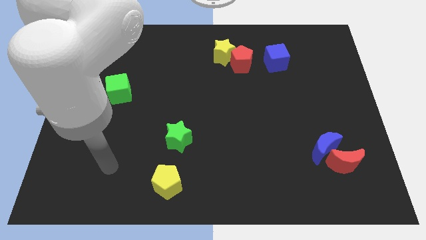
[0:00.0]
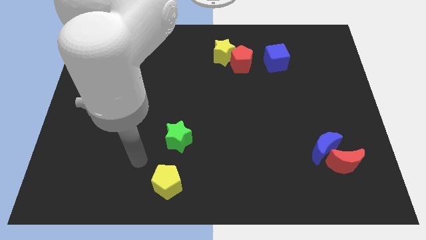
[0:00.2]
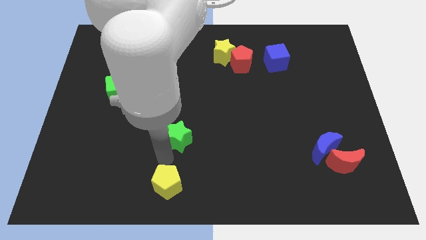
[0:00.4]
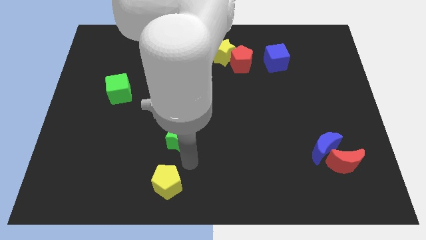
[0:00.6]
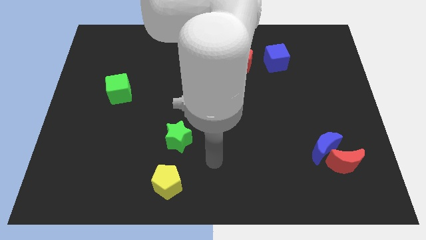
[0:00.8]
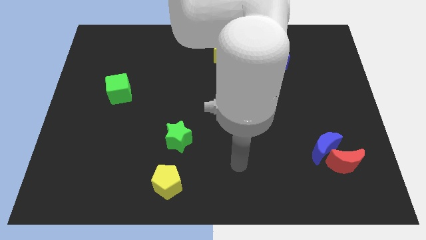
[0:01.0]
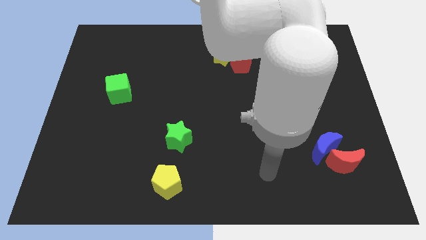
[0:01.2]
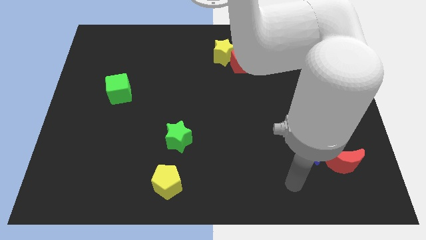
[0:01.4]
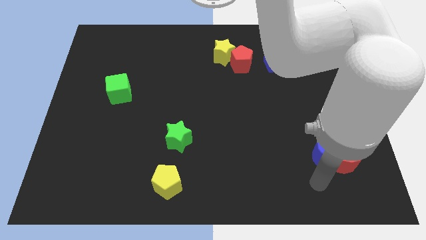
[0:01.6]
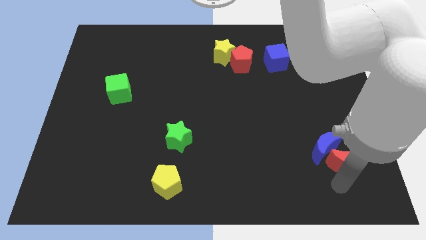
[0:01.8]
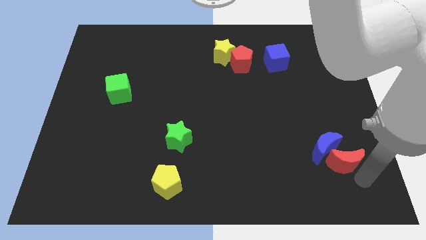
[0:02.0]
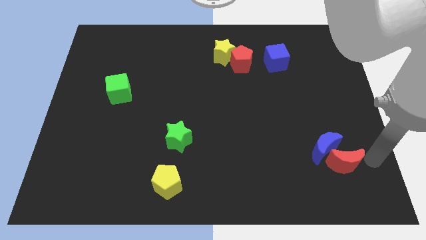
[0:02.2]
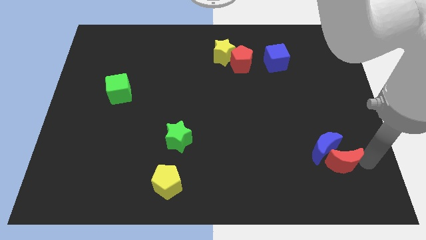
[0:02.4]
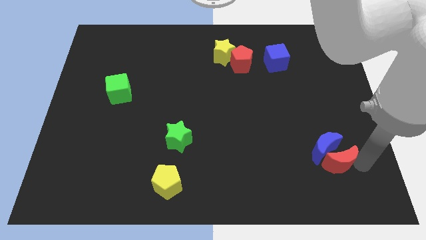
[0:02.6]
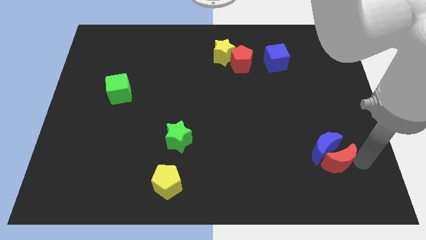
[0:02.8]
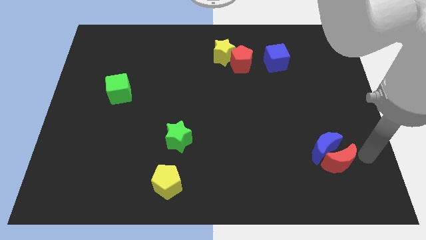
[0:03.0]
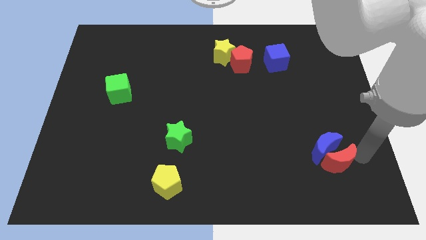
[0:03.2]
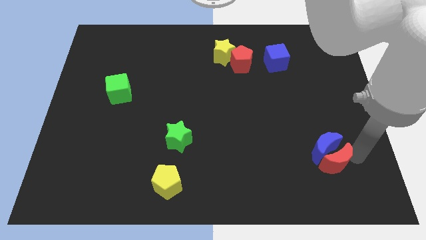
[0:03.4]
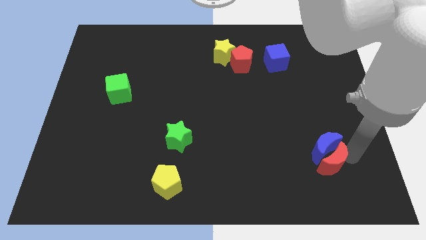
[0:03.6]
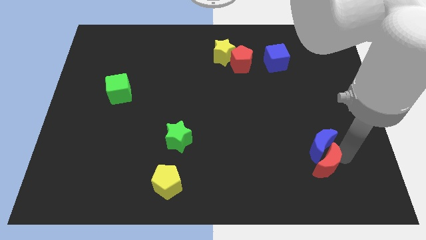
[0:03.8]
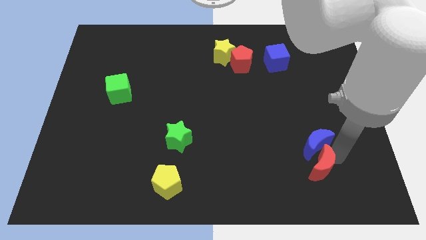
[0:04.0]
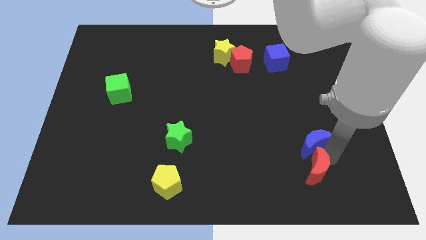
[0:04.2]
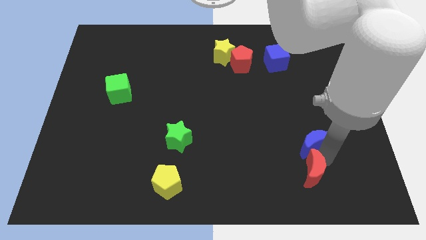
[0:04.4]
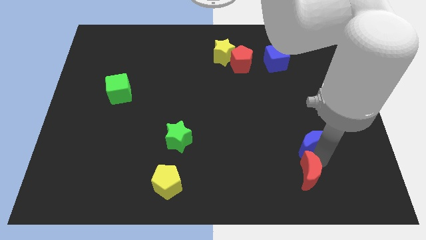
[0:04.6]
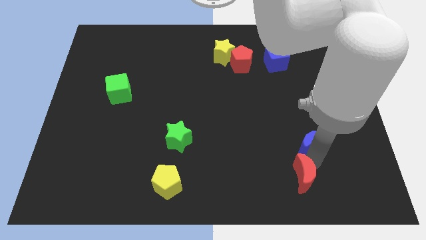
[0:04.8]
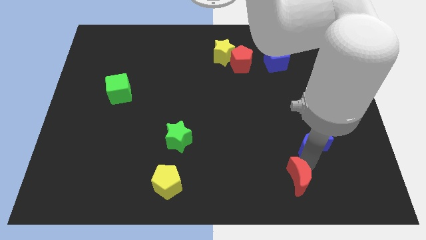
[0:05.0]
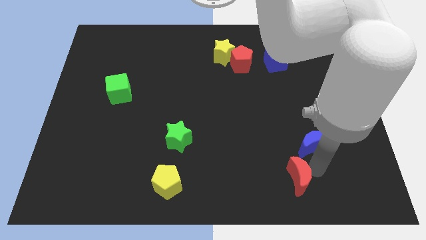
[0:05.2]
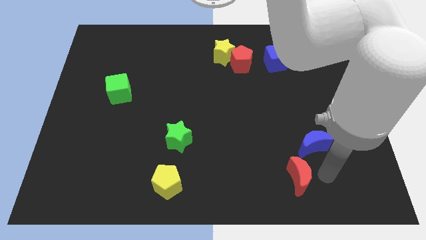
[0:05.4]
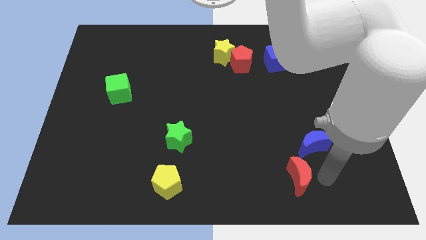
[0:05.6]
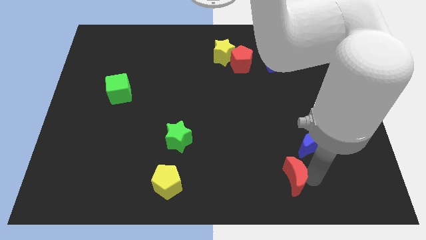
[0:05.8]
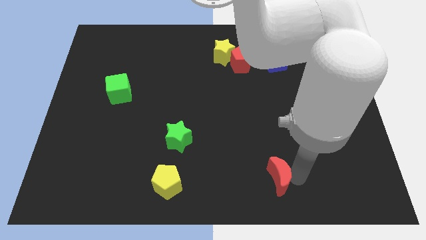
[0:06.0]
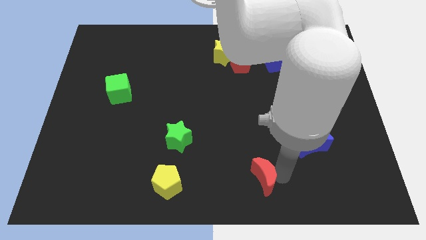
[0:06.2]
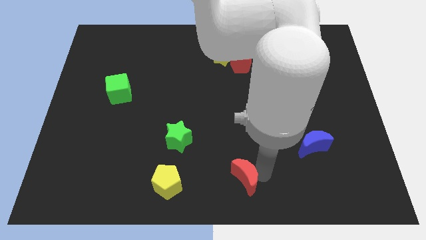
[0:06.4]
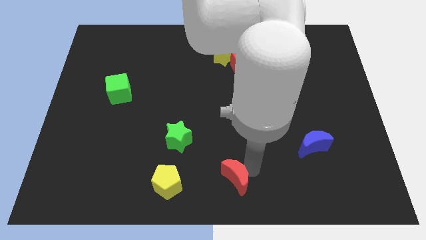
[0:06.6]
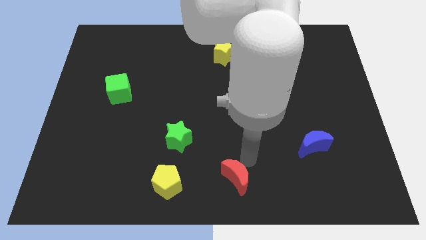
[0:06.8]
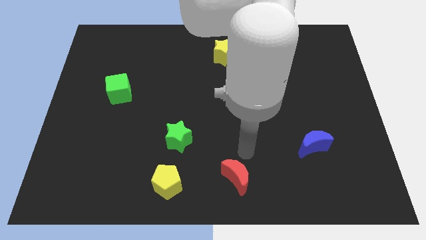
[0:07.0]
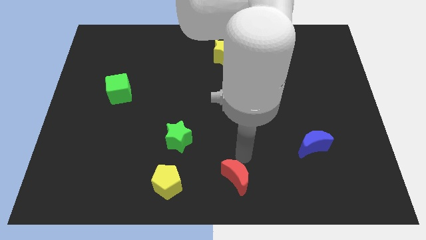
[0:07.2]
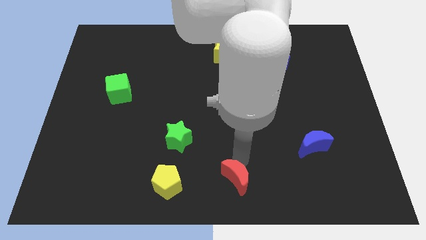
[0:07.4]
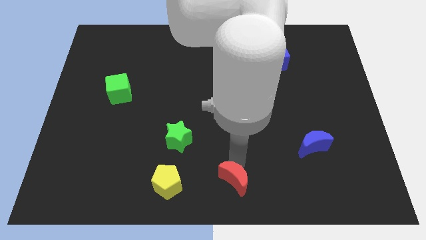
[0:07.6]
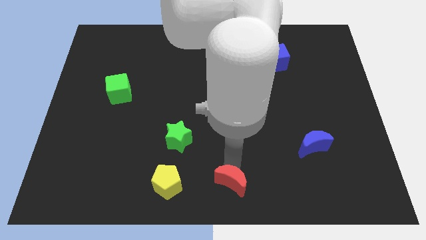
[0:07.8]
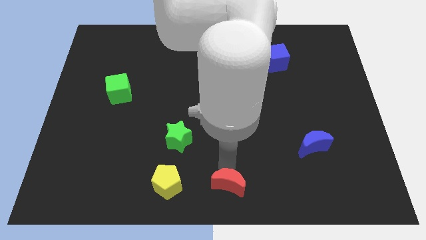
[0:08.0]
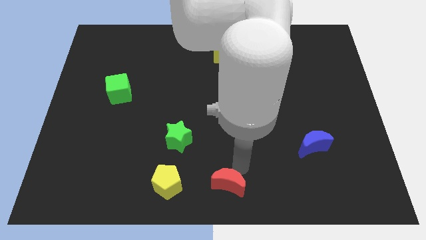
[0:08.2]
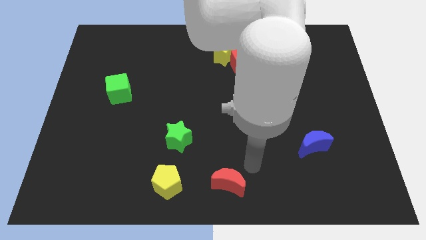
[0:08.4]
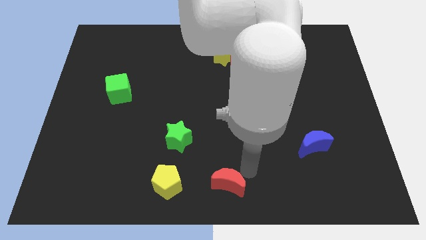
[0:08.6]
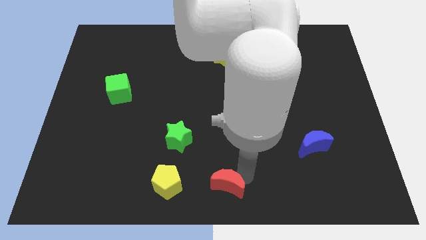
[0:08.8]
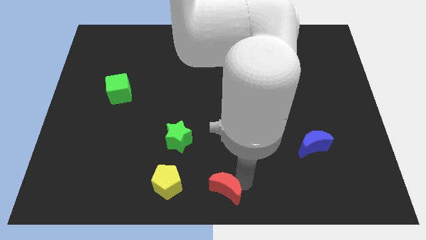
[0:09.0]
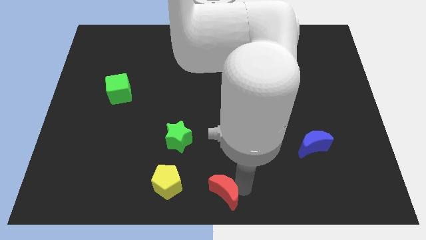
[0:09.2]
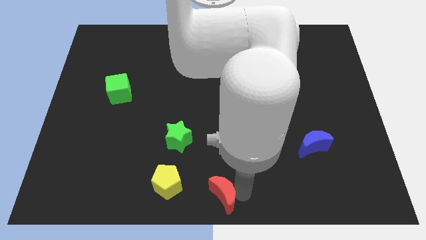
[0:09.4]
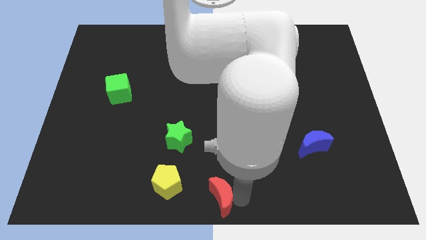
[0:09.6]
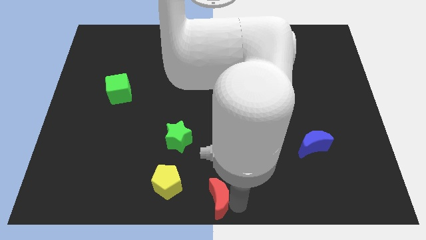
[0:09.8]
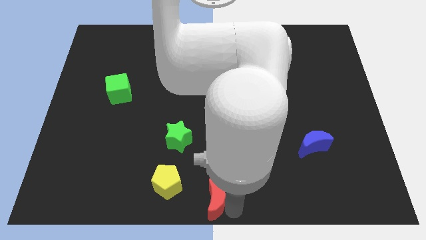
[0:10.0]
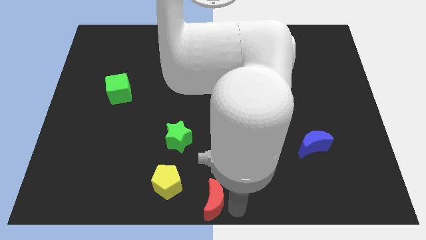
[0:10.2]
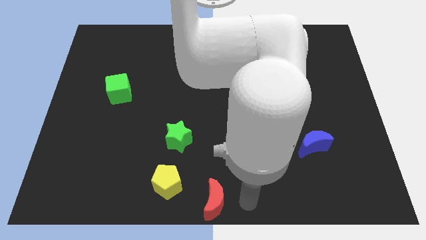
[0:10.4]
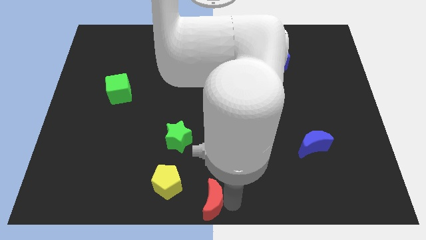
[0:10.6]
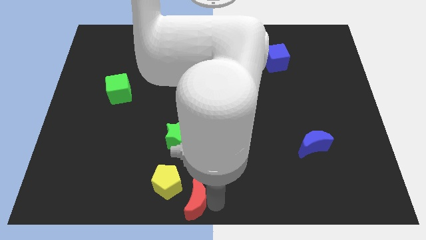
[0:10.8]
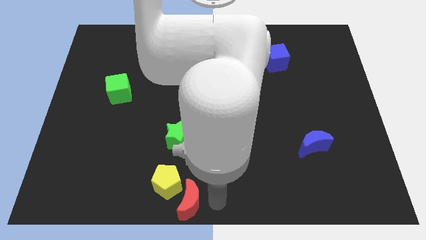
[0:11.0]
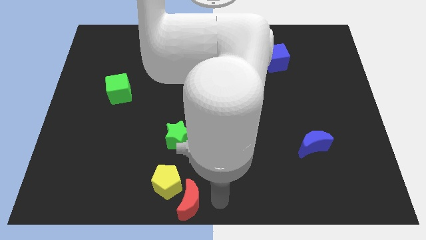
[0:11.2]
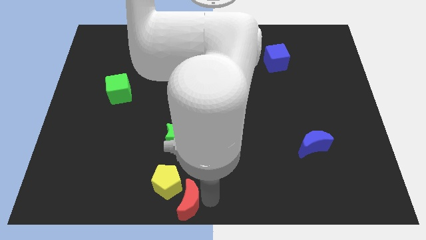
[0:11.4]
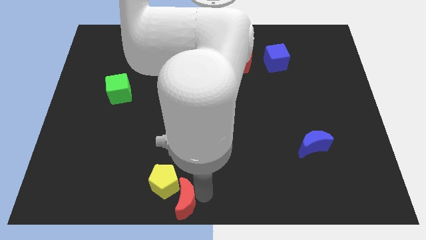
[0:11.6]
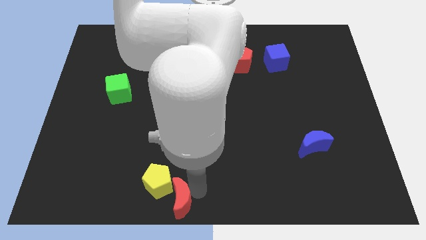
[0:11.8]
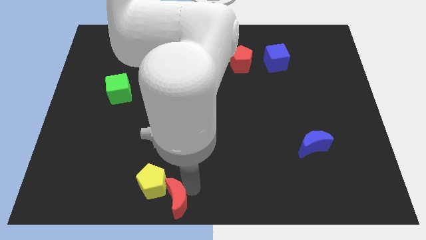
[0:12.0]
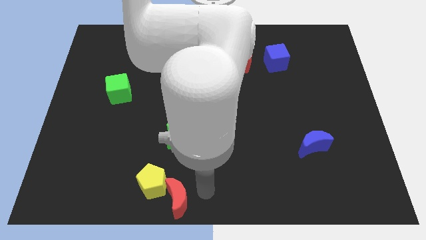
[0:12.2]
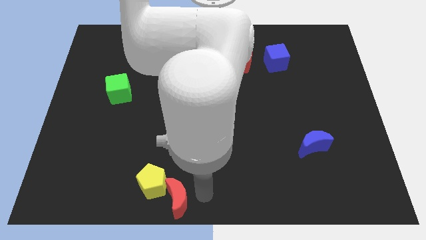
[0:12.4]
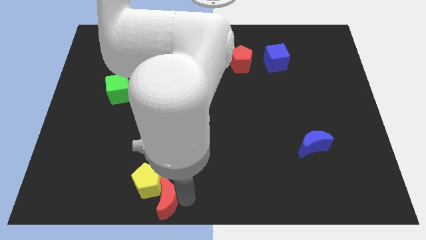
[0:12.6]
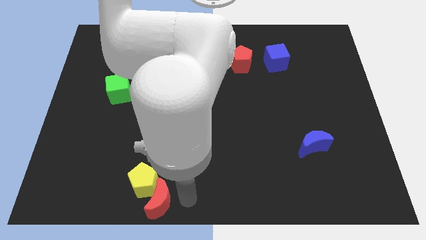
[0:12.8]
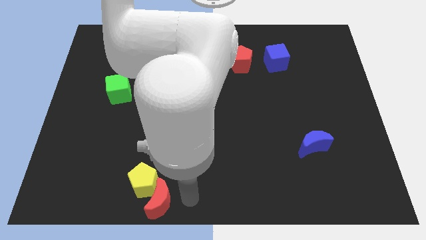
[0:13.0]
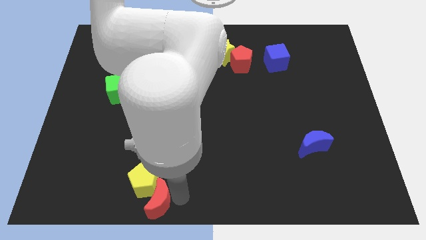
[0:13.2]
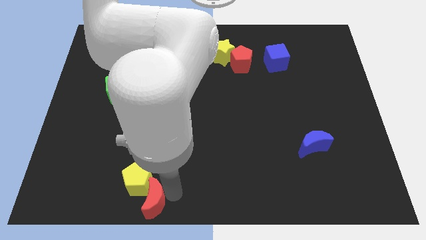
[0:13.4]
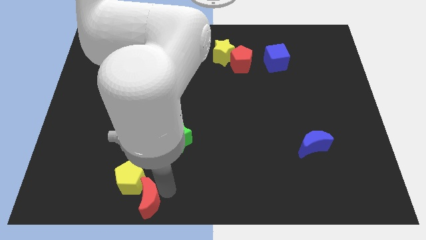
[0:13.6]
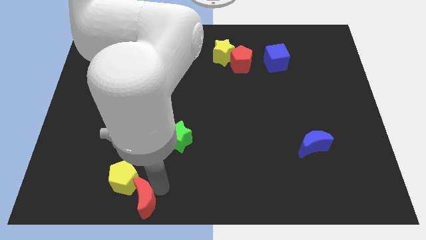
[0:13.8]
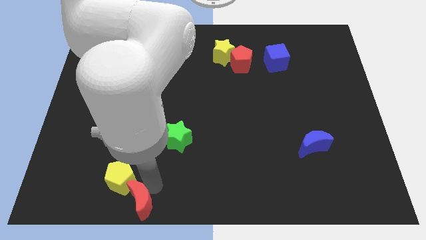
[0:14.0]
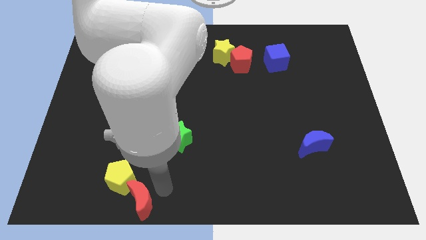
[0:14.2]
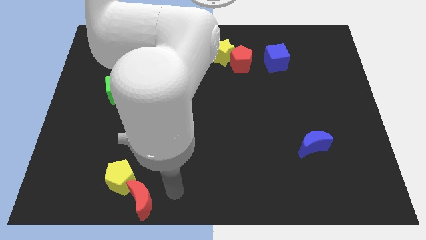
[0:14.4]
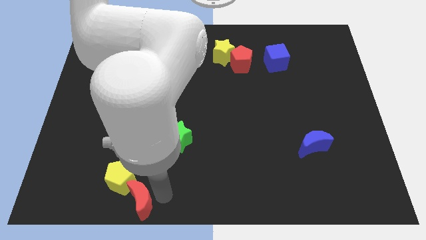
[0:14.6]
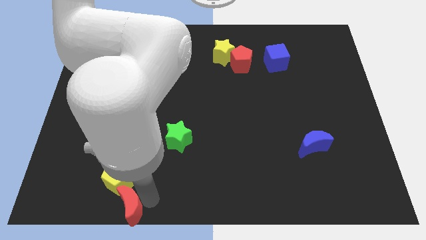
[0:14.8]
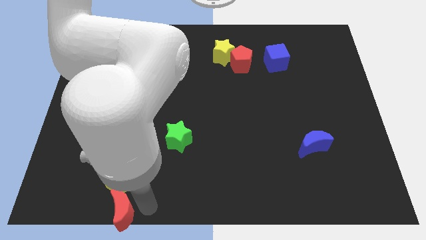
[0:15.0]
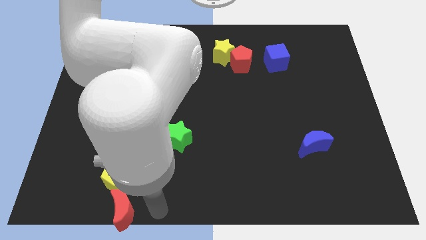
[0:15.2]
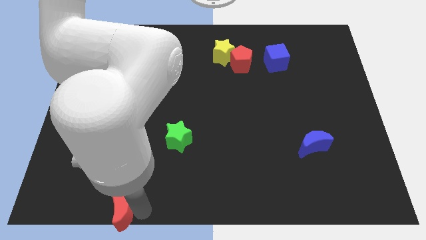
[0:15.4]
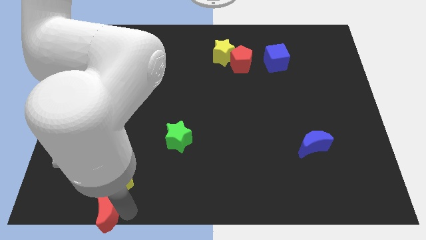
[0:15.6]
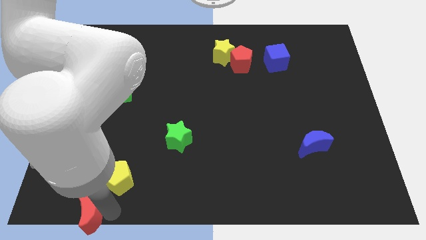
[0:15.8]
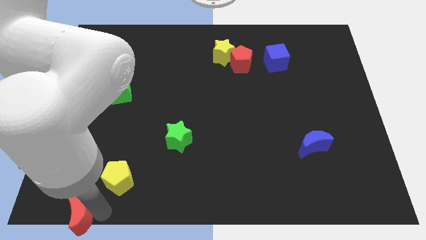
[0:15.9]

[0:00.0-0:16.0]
push the red moon to the bottom left of the board
